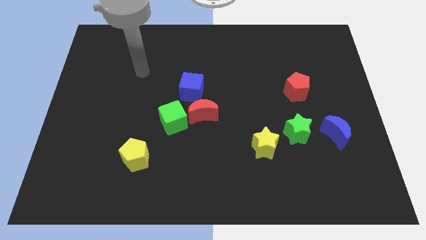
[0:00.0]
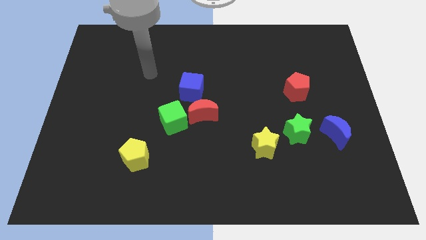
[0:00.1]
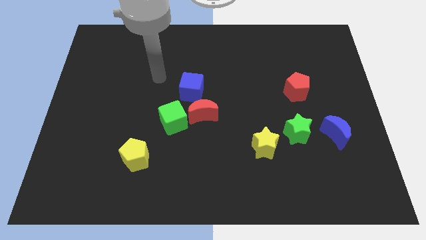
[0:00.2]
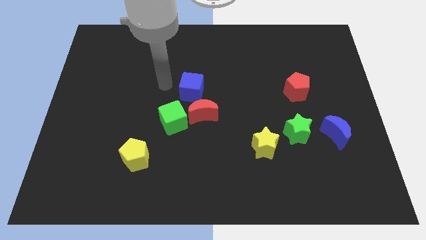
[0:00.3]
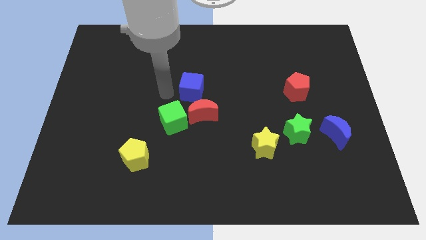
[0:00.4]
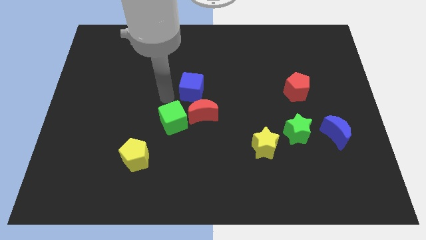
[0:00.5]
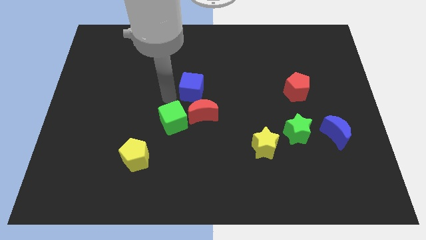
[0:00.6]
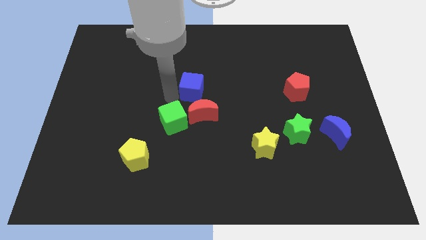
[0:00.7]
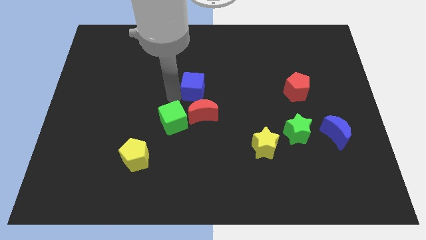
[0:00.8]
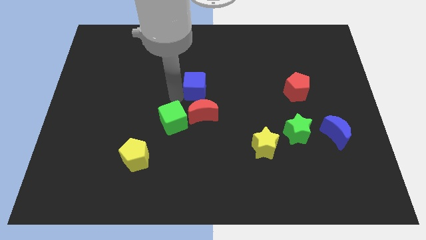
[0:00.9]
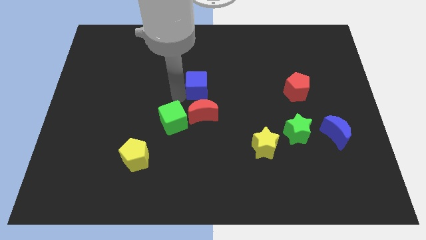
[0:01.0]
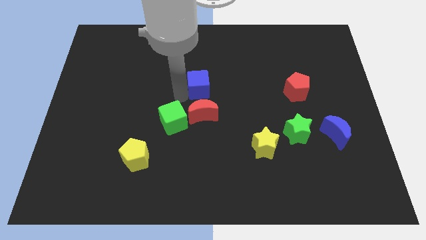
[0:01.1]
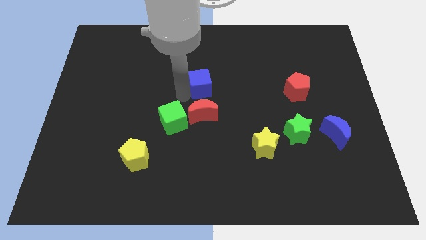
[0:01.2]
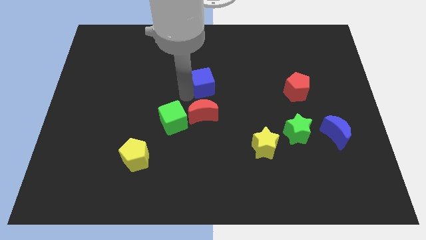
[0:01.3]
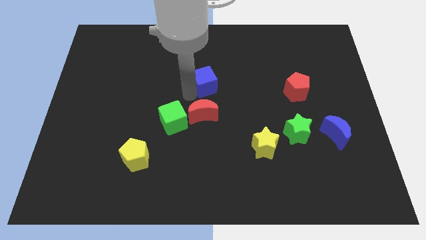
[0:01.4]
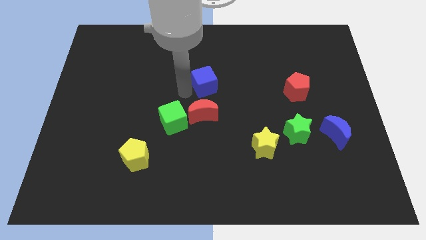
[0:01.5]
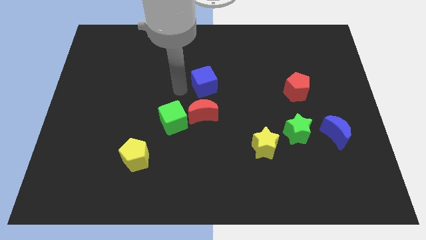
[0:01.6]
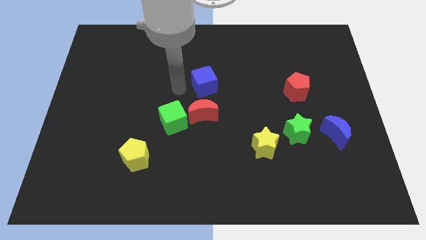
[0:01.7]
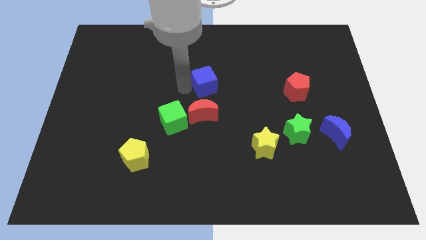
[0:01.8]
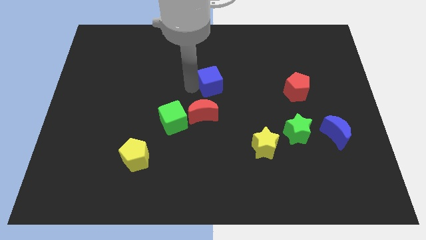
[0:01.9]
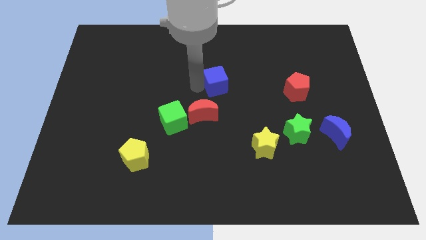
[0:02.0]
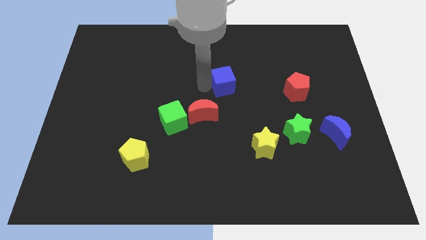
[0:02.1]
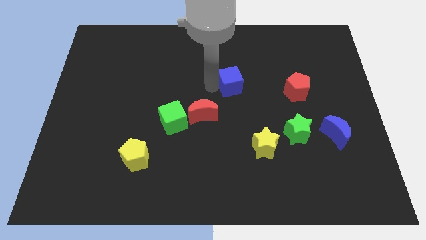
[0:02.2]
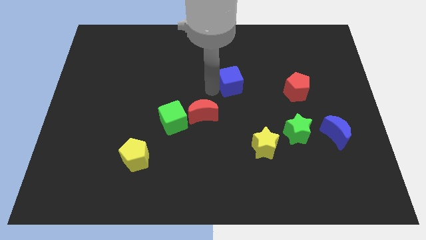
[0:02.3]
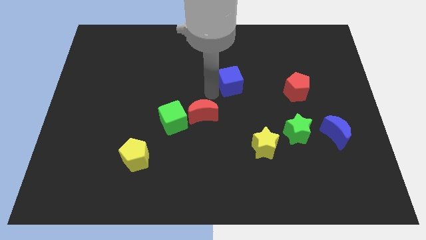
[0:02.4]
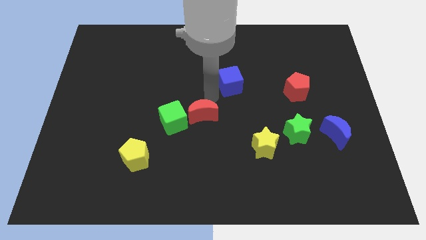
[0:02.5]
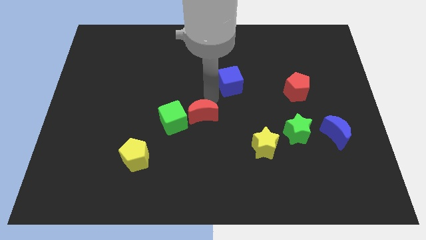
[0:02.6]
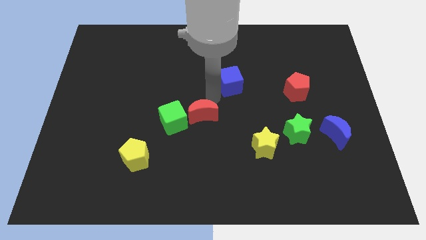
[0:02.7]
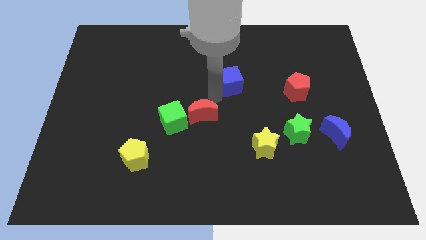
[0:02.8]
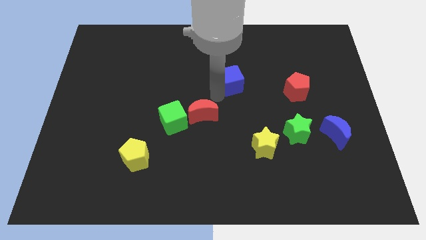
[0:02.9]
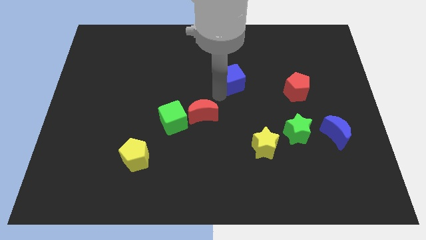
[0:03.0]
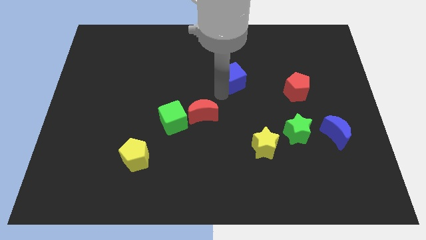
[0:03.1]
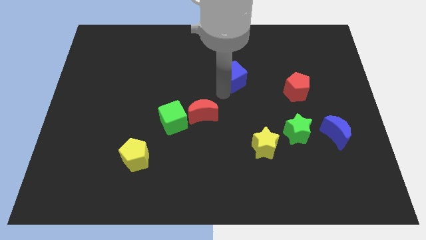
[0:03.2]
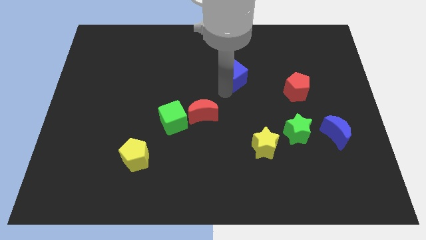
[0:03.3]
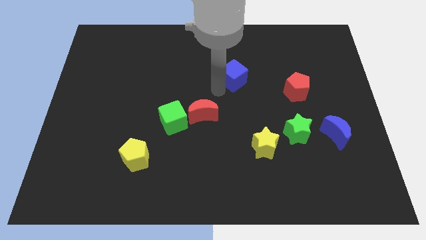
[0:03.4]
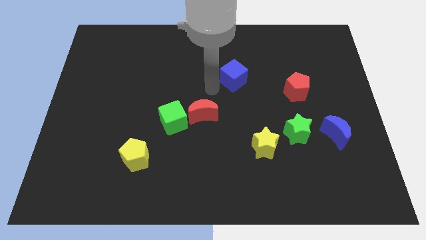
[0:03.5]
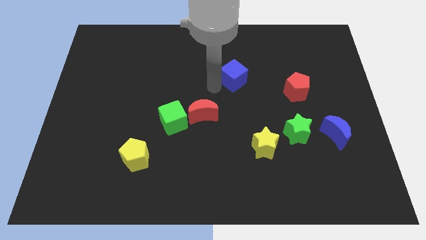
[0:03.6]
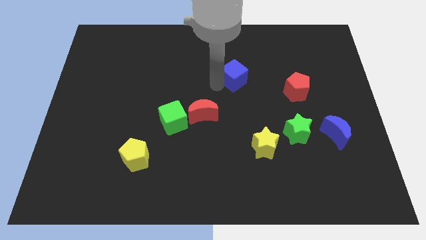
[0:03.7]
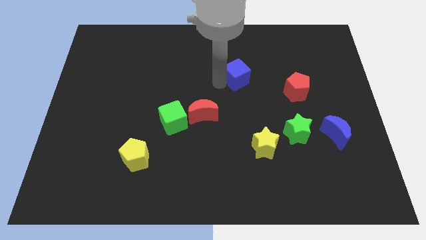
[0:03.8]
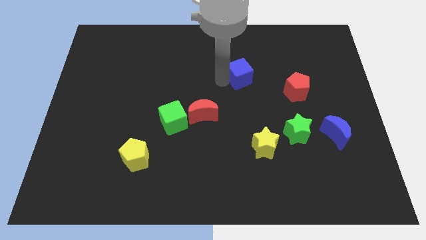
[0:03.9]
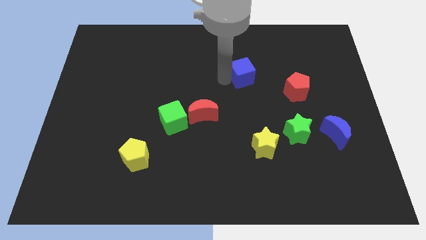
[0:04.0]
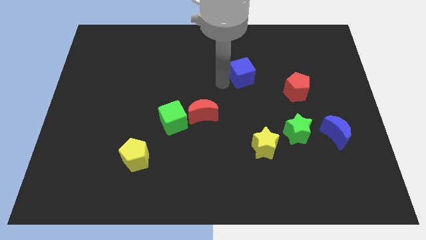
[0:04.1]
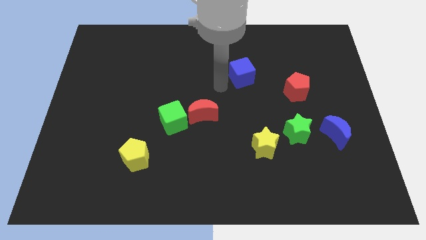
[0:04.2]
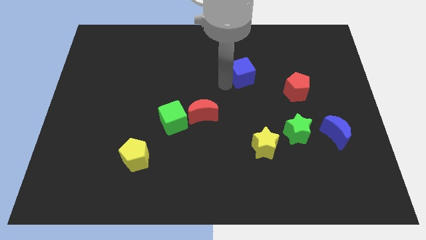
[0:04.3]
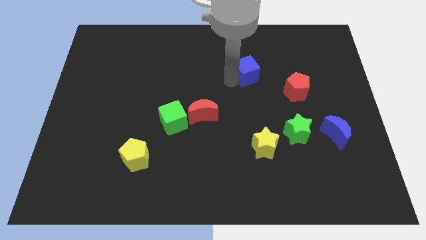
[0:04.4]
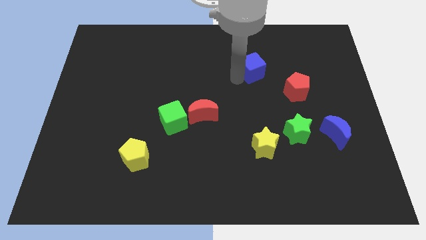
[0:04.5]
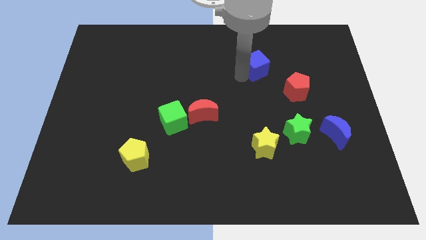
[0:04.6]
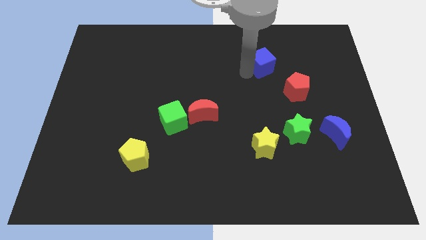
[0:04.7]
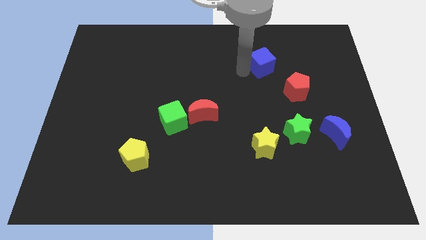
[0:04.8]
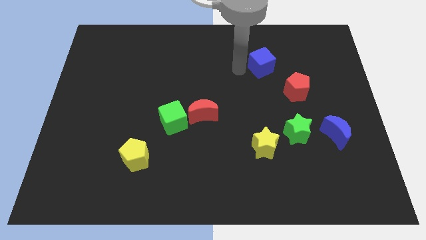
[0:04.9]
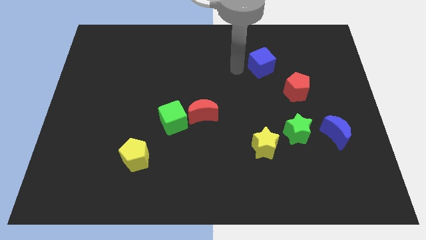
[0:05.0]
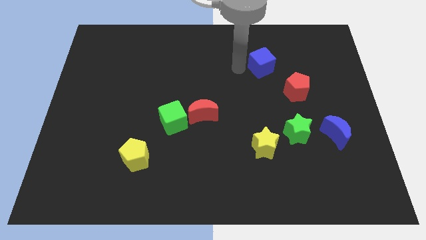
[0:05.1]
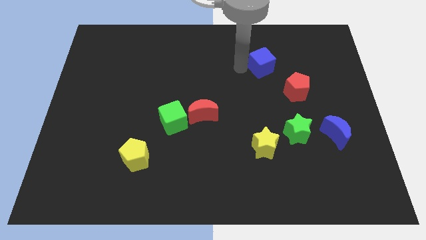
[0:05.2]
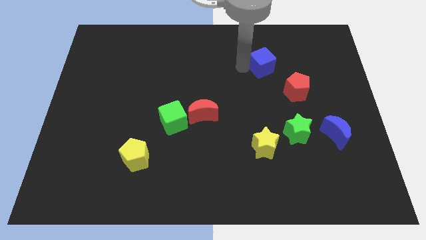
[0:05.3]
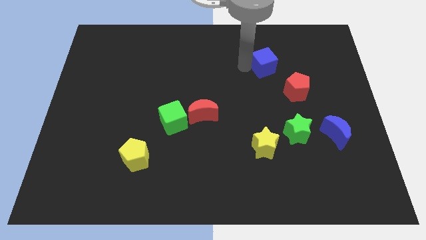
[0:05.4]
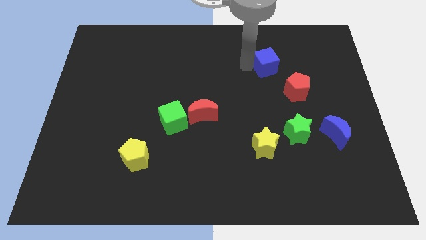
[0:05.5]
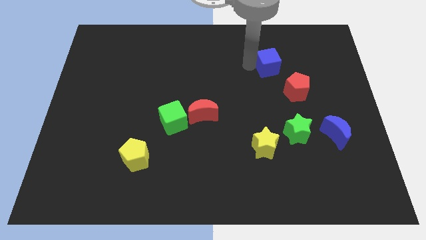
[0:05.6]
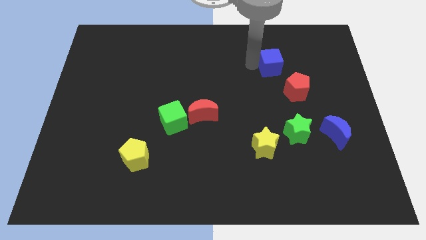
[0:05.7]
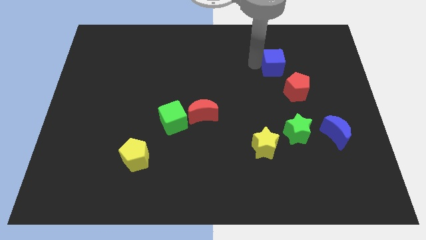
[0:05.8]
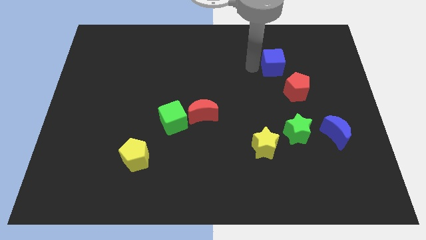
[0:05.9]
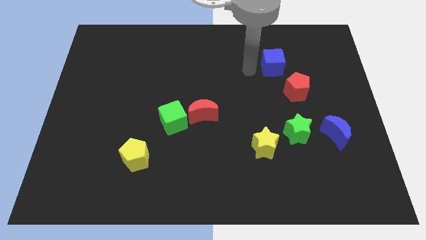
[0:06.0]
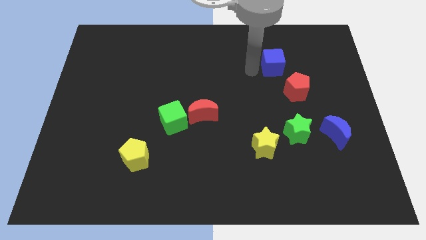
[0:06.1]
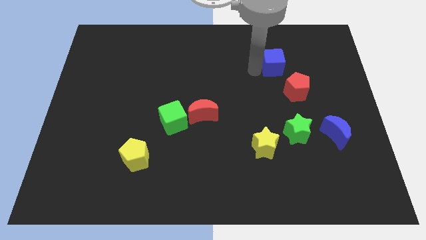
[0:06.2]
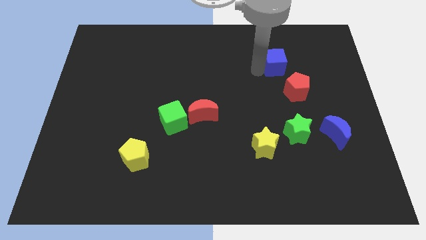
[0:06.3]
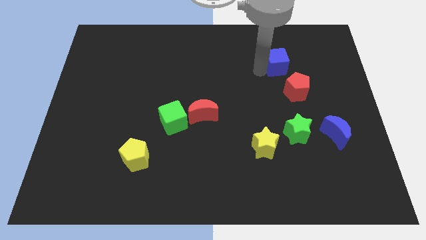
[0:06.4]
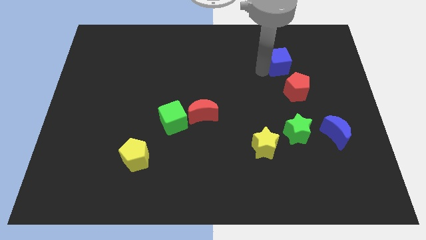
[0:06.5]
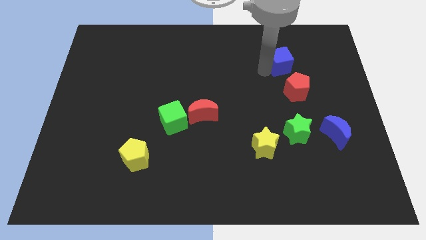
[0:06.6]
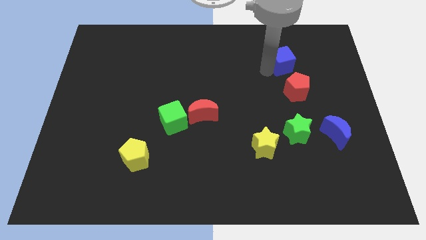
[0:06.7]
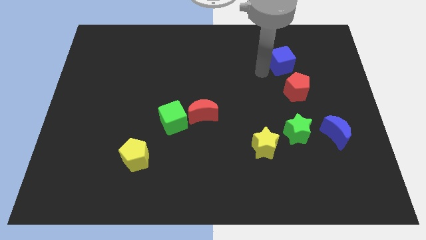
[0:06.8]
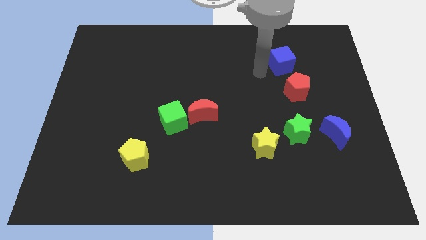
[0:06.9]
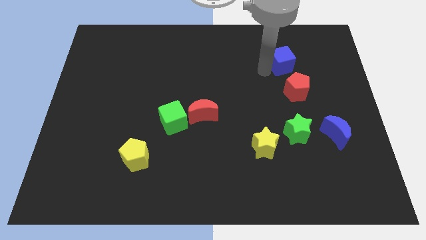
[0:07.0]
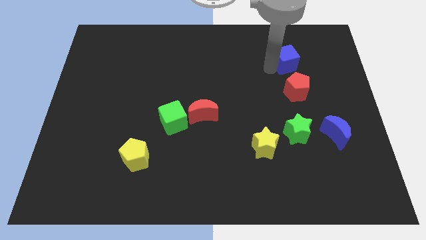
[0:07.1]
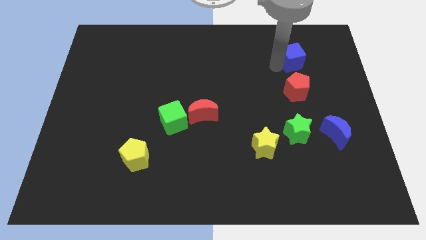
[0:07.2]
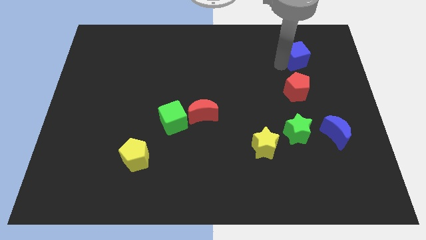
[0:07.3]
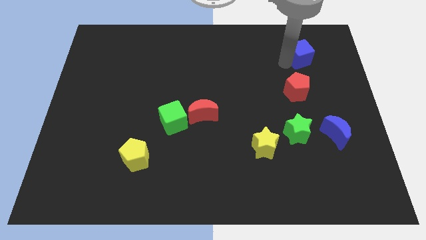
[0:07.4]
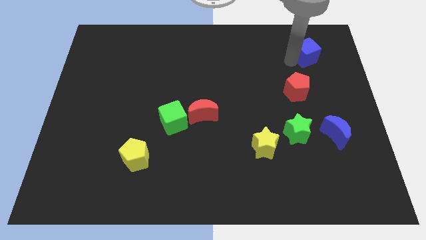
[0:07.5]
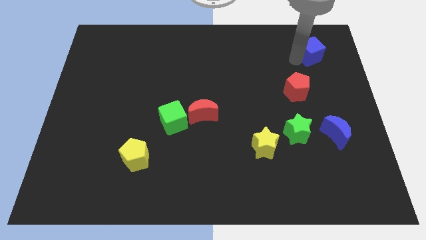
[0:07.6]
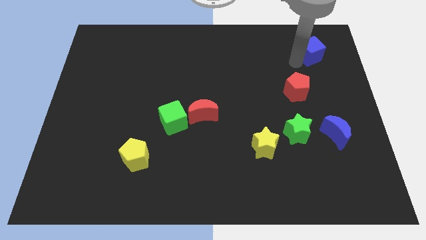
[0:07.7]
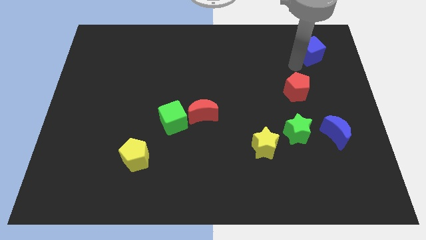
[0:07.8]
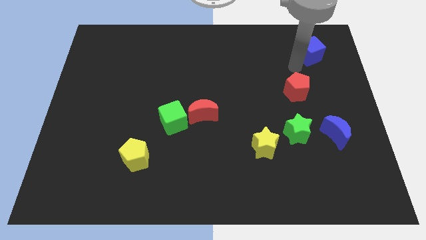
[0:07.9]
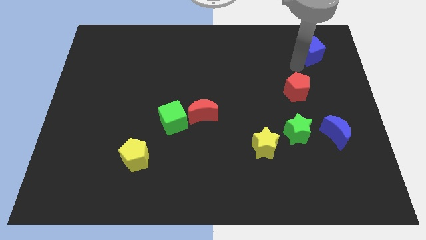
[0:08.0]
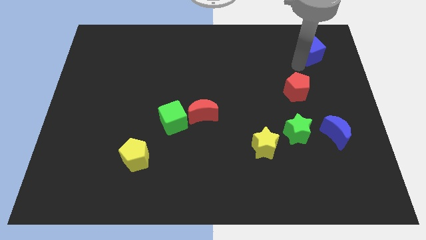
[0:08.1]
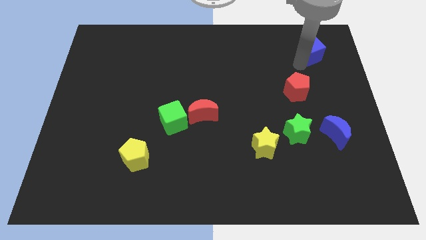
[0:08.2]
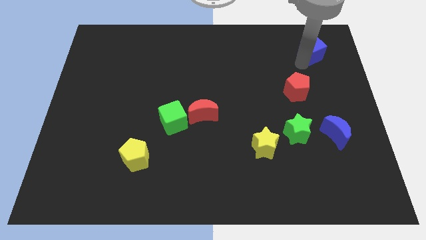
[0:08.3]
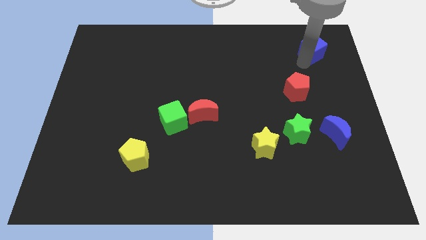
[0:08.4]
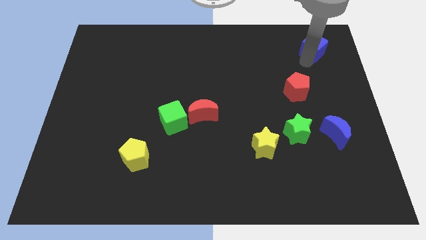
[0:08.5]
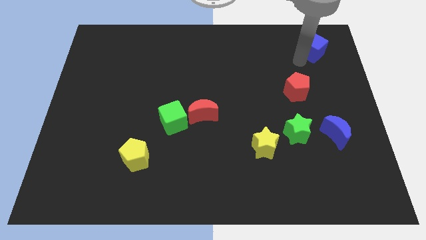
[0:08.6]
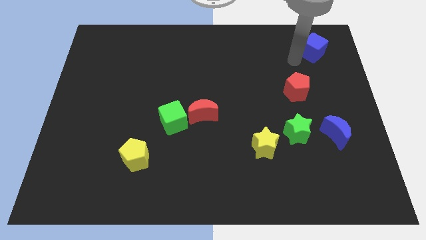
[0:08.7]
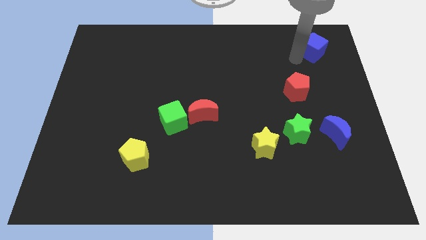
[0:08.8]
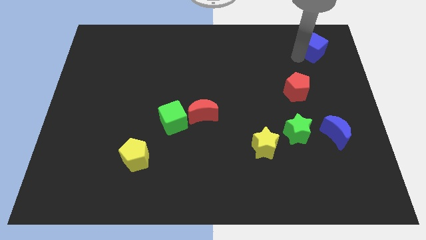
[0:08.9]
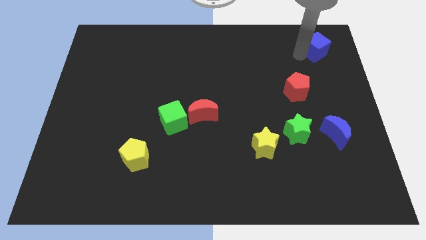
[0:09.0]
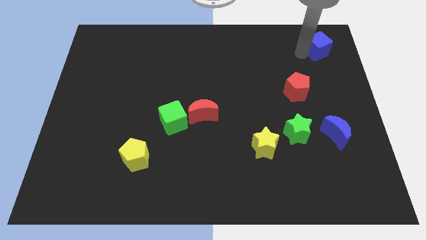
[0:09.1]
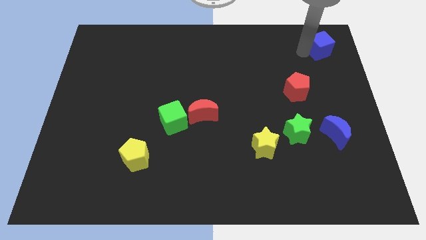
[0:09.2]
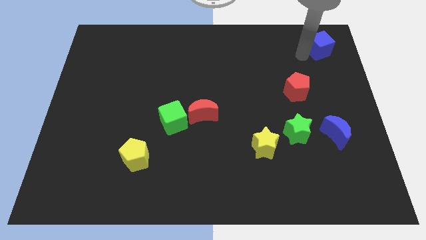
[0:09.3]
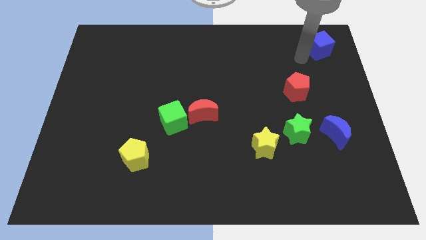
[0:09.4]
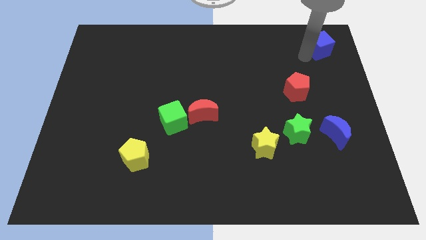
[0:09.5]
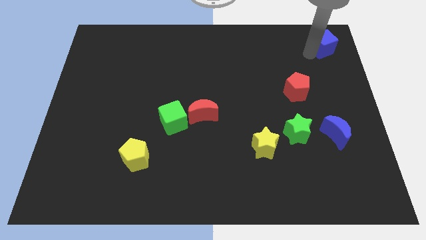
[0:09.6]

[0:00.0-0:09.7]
slide the blue cube to the upper right corner
